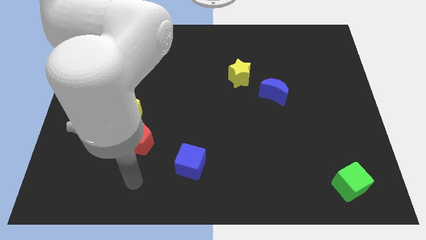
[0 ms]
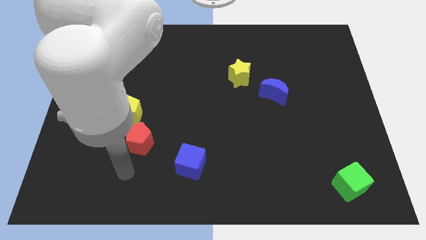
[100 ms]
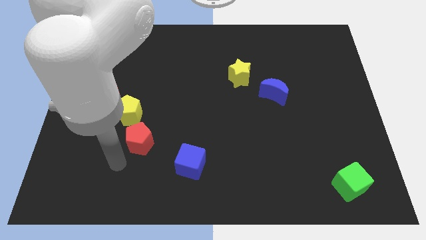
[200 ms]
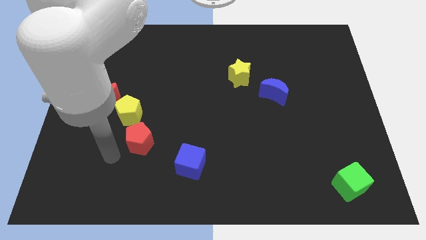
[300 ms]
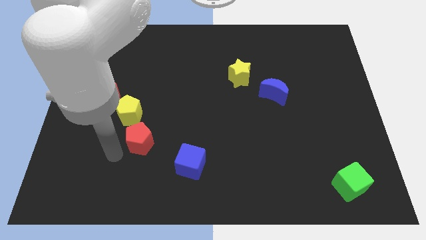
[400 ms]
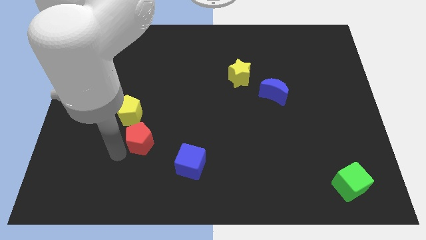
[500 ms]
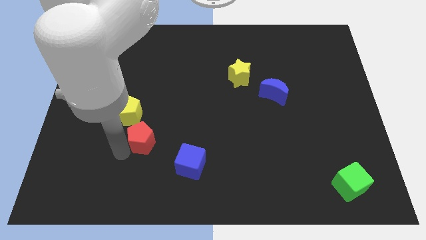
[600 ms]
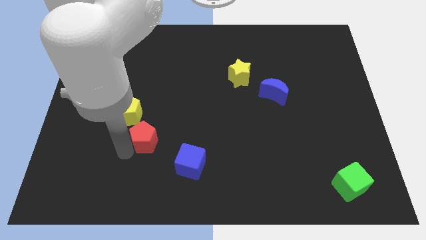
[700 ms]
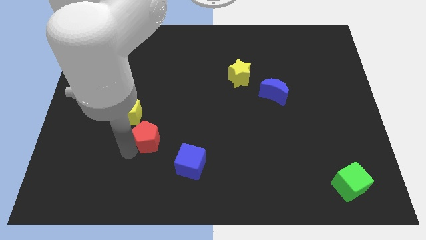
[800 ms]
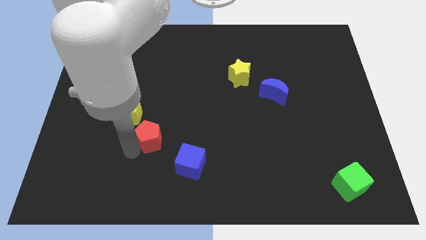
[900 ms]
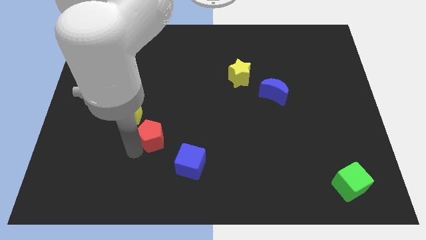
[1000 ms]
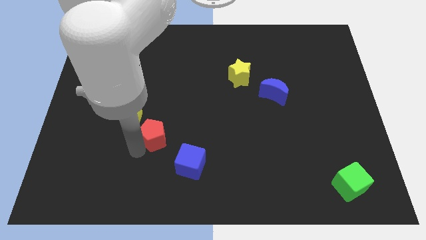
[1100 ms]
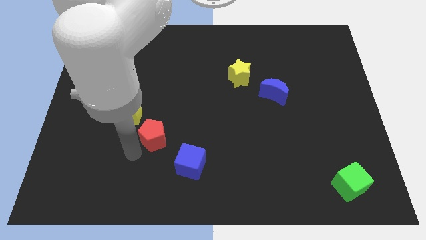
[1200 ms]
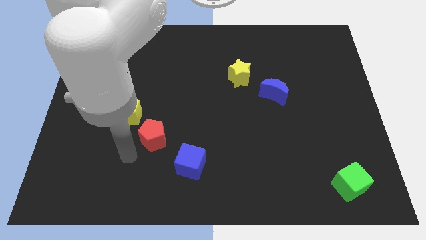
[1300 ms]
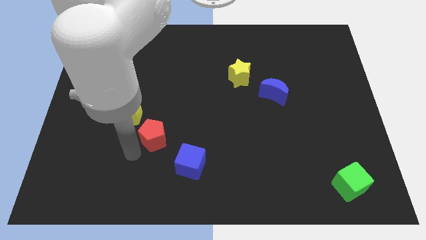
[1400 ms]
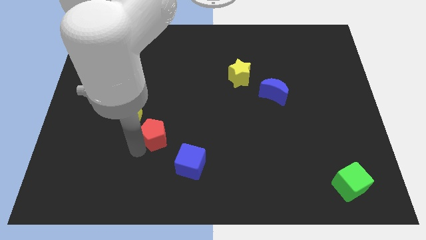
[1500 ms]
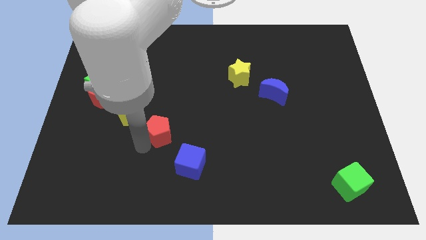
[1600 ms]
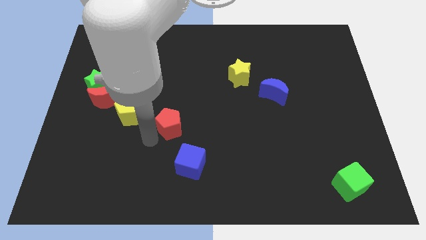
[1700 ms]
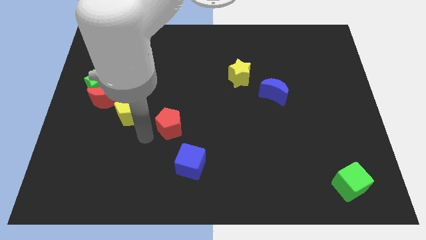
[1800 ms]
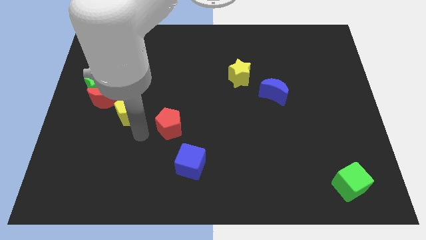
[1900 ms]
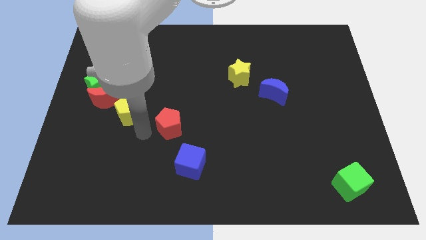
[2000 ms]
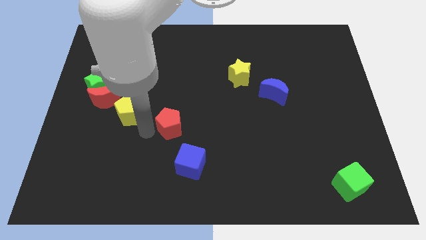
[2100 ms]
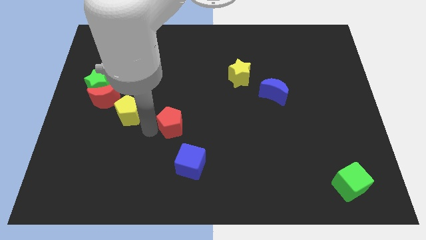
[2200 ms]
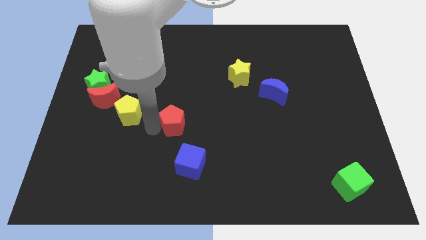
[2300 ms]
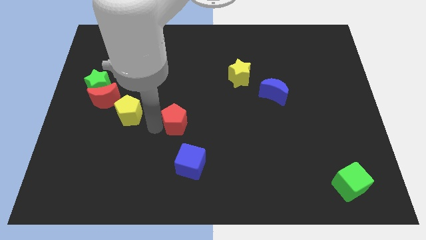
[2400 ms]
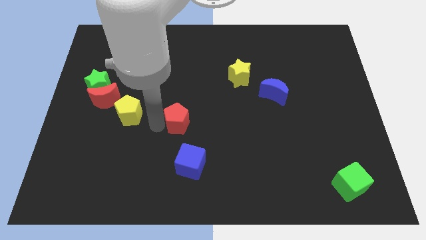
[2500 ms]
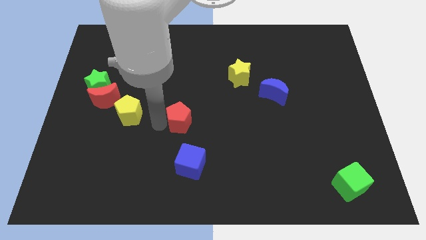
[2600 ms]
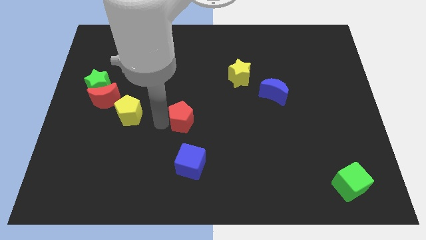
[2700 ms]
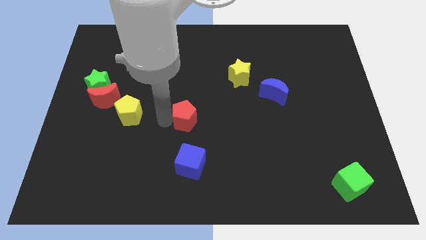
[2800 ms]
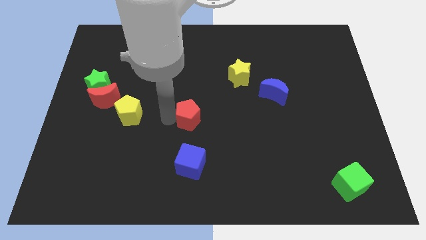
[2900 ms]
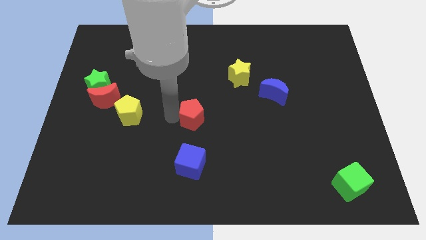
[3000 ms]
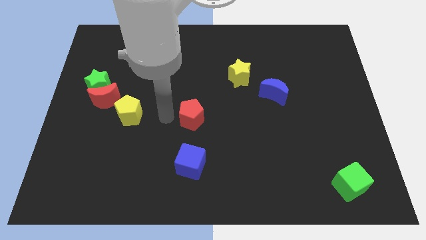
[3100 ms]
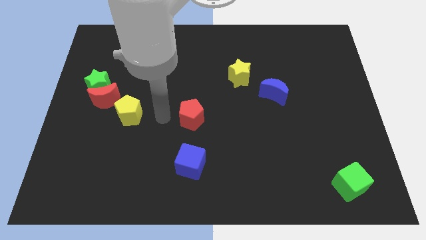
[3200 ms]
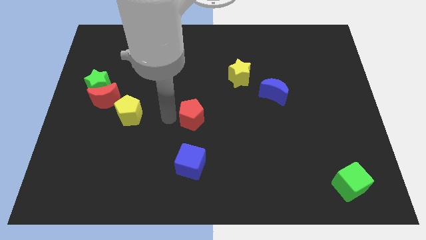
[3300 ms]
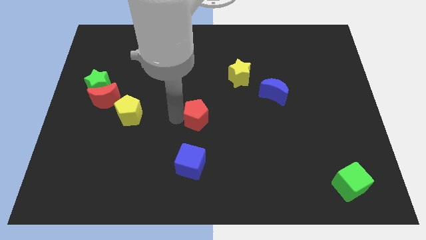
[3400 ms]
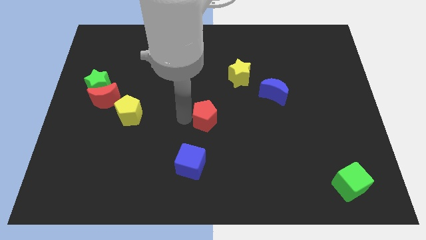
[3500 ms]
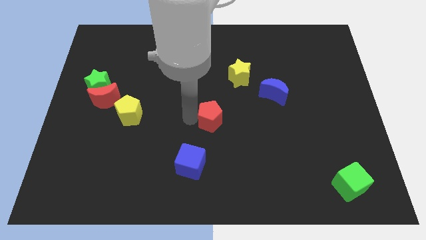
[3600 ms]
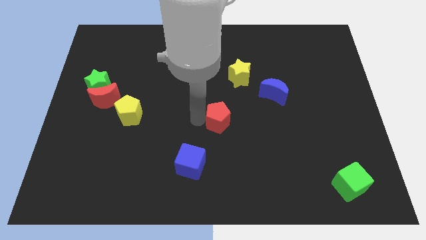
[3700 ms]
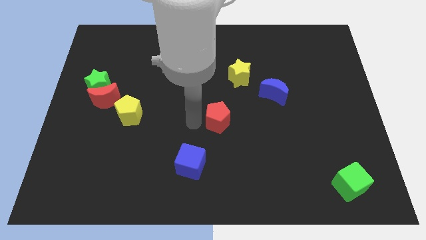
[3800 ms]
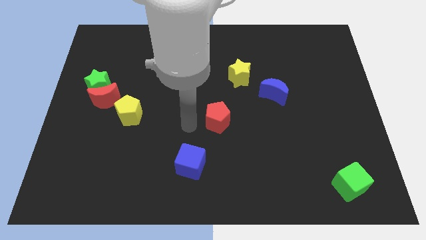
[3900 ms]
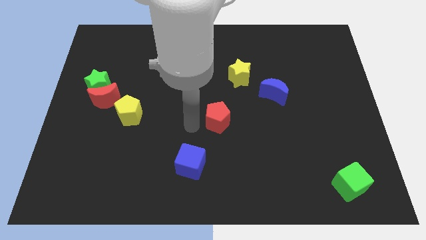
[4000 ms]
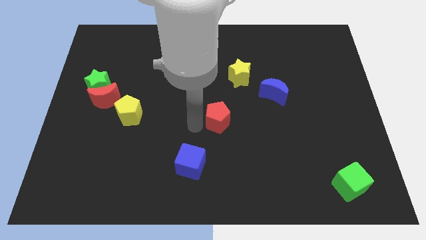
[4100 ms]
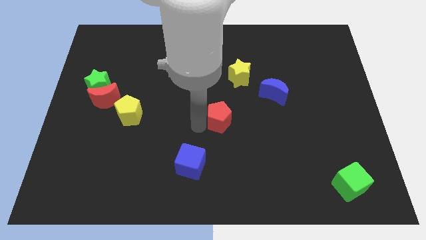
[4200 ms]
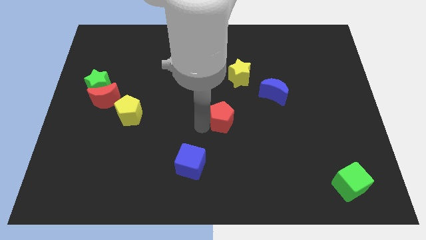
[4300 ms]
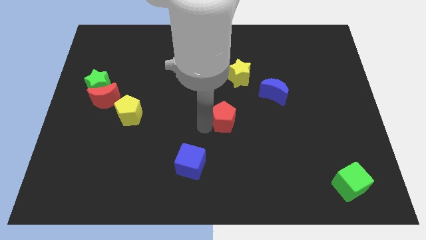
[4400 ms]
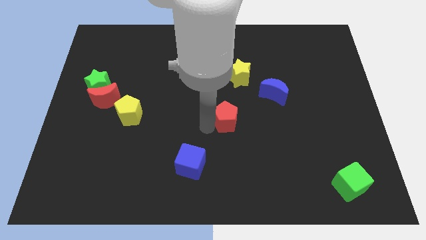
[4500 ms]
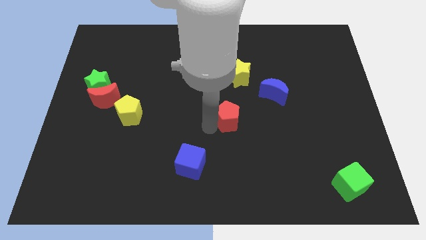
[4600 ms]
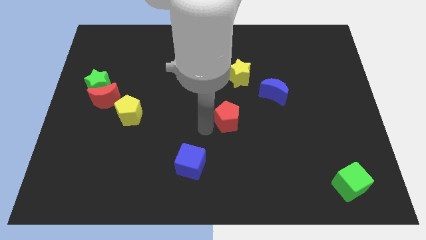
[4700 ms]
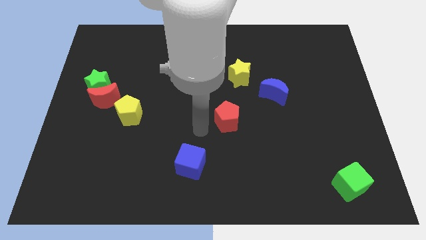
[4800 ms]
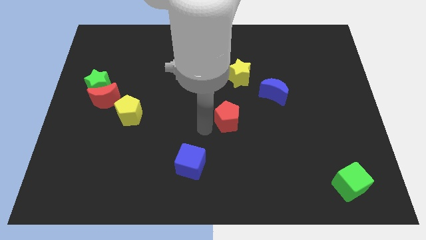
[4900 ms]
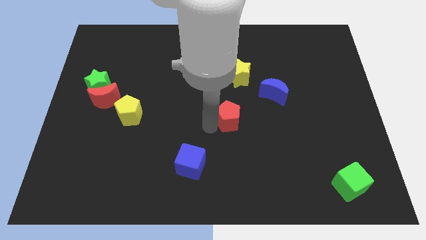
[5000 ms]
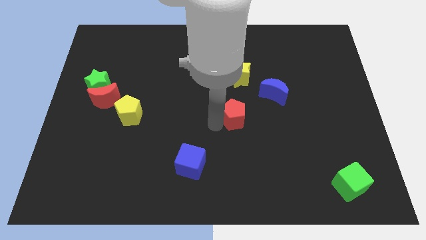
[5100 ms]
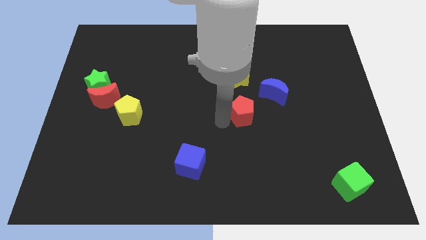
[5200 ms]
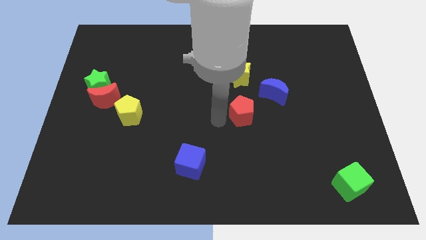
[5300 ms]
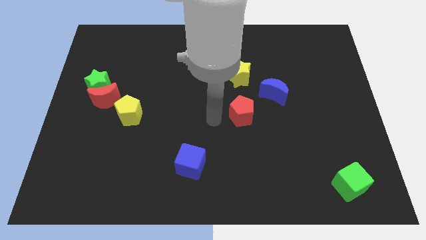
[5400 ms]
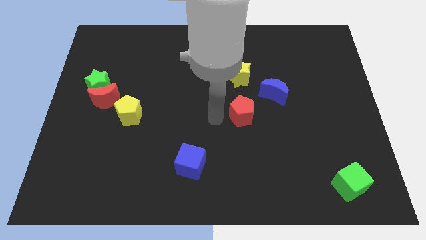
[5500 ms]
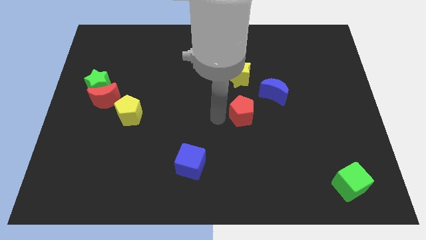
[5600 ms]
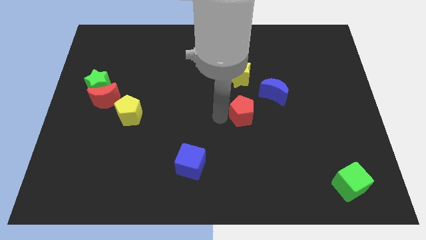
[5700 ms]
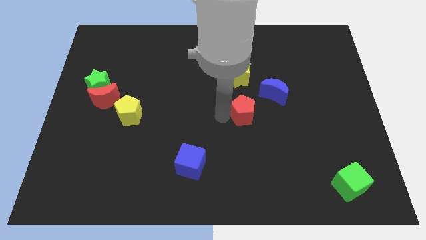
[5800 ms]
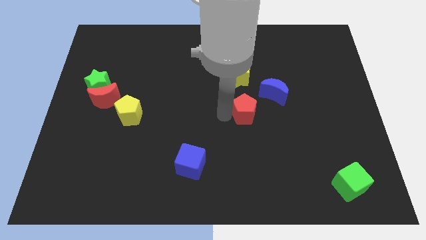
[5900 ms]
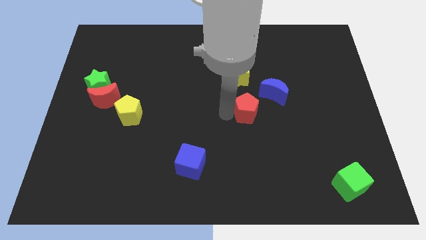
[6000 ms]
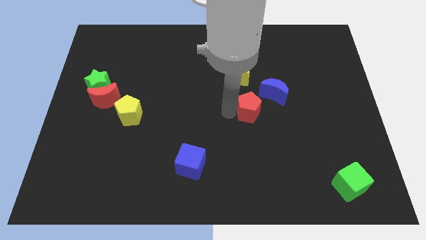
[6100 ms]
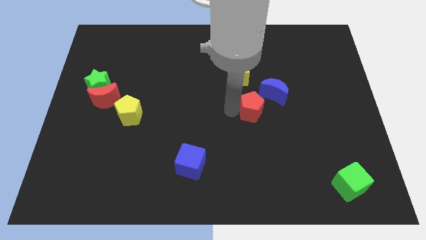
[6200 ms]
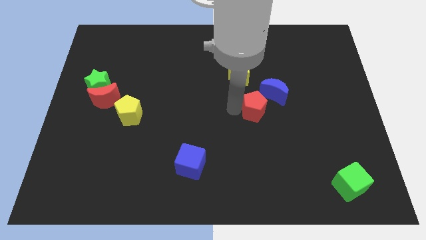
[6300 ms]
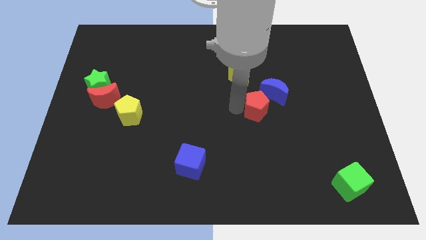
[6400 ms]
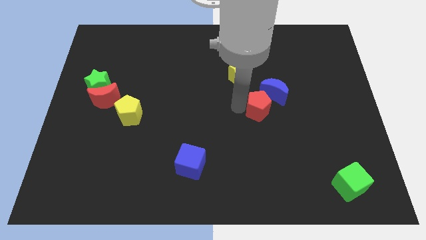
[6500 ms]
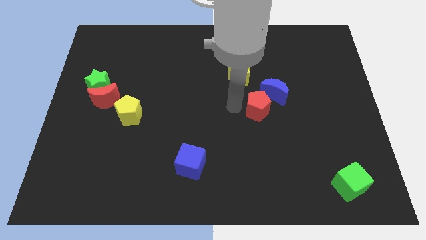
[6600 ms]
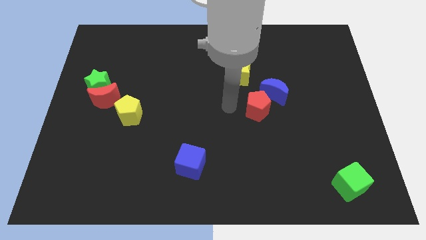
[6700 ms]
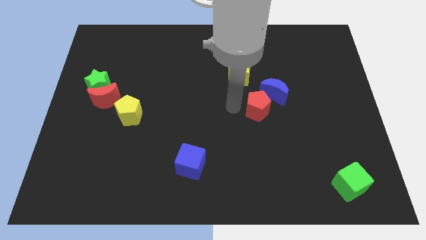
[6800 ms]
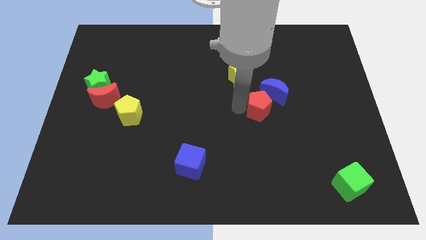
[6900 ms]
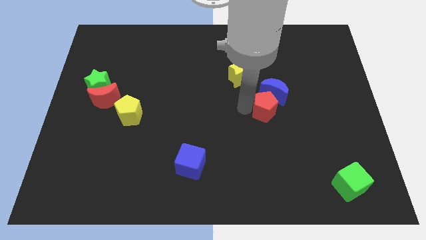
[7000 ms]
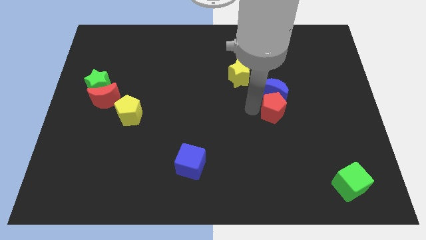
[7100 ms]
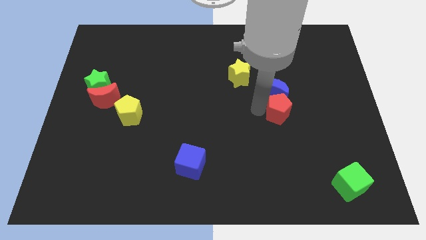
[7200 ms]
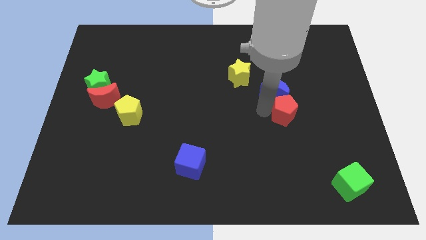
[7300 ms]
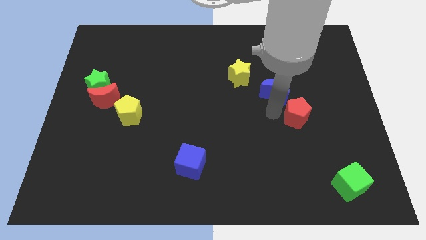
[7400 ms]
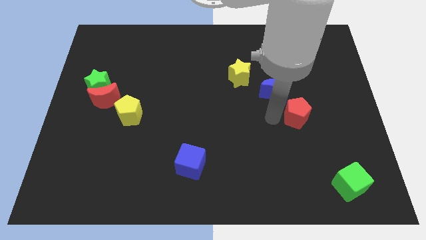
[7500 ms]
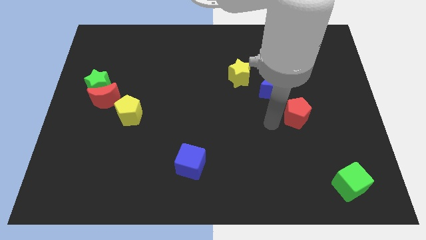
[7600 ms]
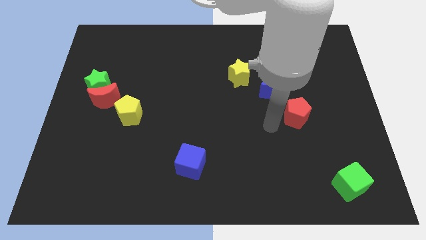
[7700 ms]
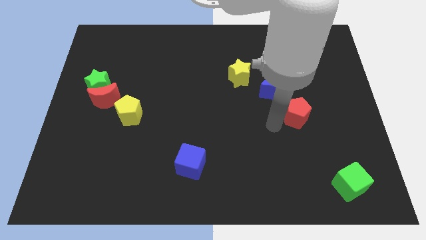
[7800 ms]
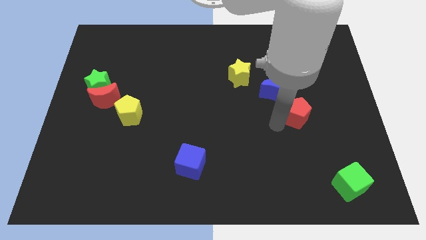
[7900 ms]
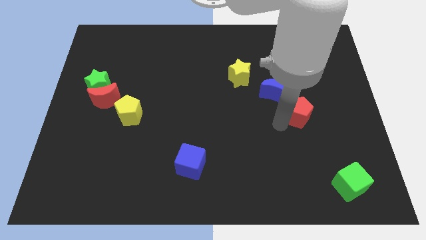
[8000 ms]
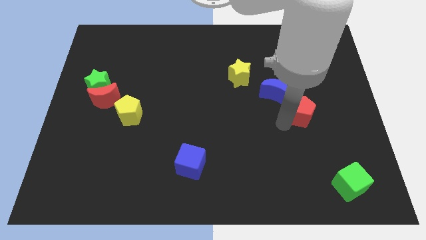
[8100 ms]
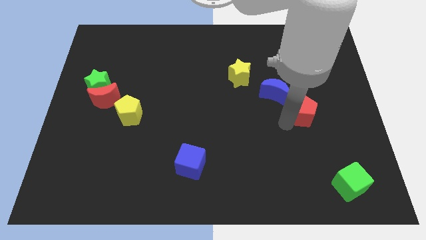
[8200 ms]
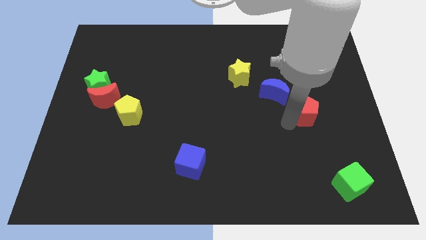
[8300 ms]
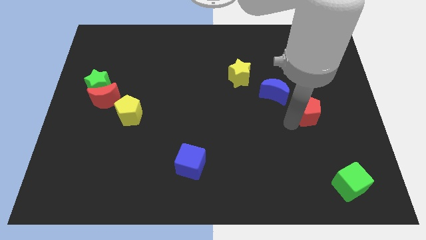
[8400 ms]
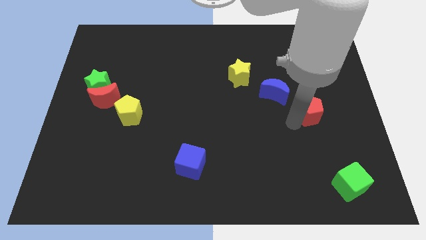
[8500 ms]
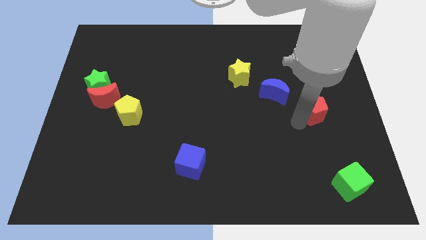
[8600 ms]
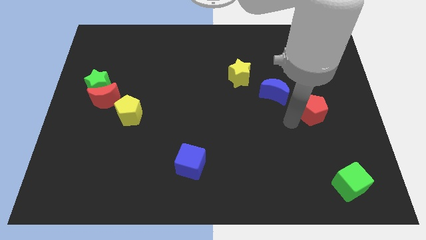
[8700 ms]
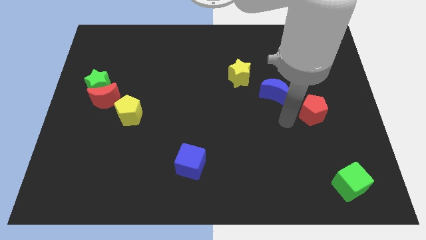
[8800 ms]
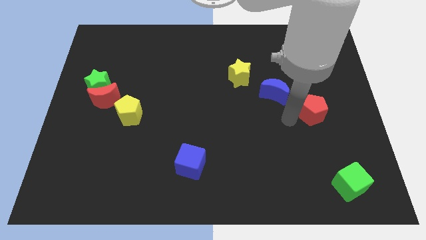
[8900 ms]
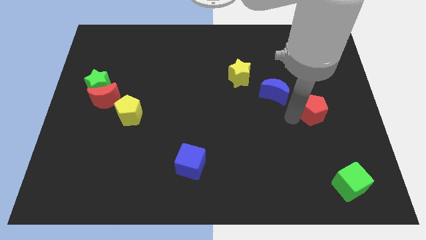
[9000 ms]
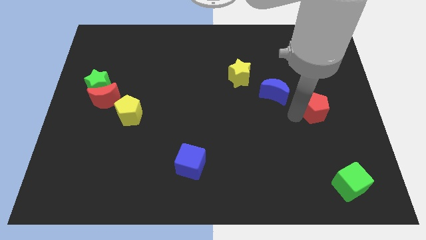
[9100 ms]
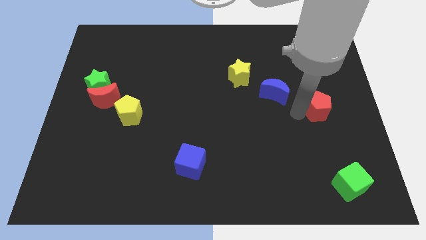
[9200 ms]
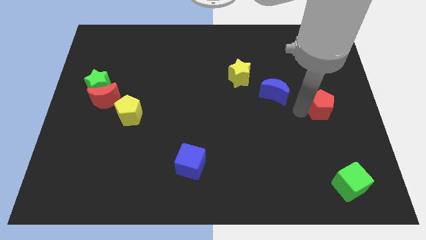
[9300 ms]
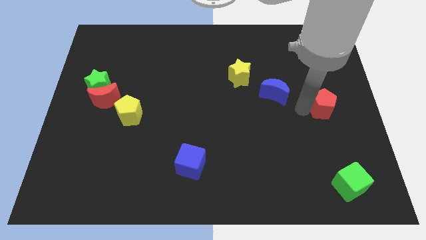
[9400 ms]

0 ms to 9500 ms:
put the red pentagon to the right side
